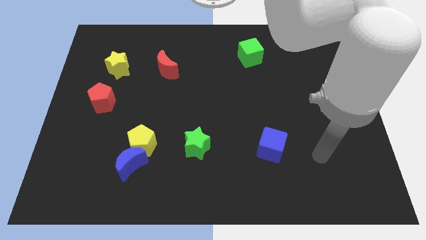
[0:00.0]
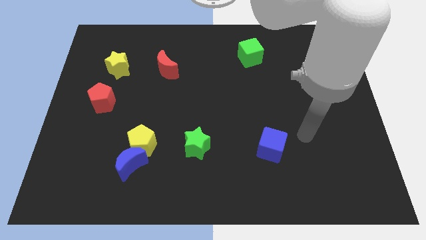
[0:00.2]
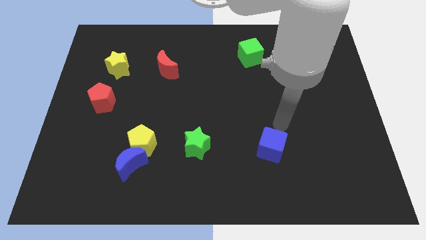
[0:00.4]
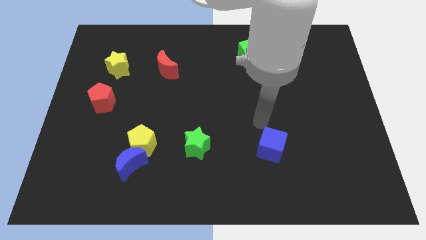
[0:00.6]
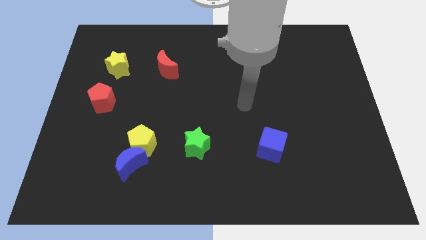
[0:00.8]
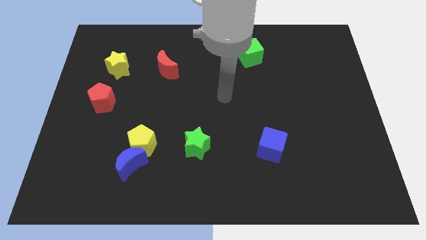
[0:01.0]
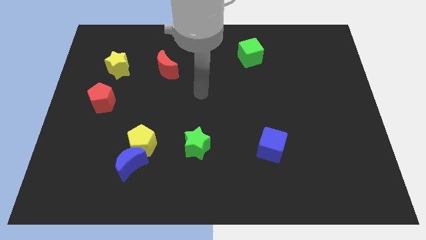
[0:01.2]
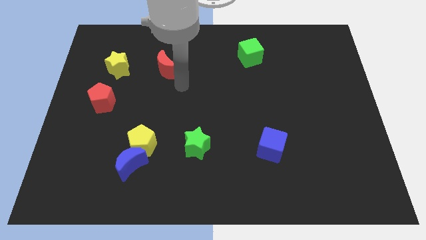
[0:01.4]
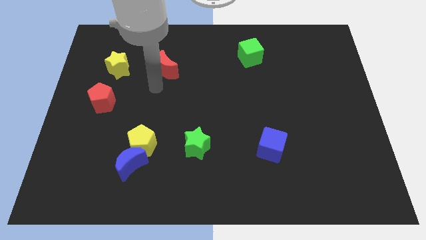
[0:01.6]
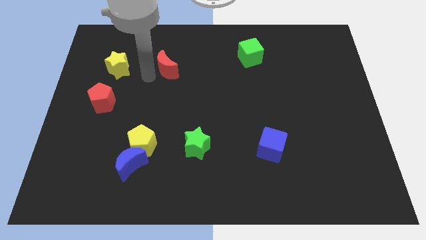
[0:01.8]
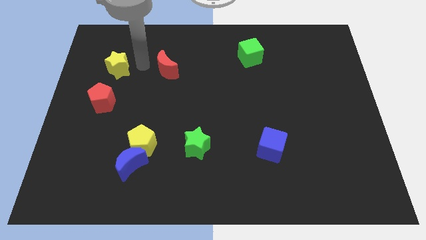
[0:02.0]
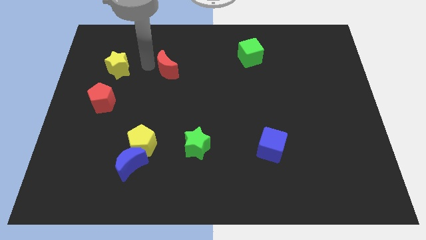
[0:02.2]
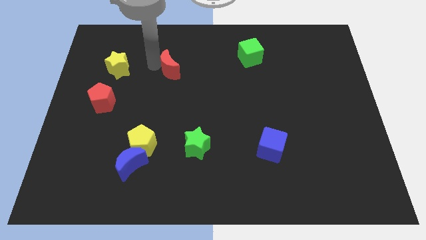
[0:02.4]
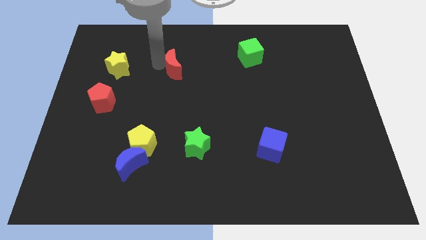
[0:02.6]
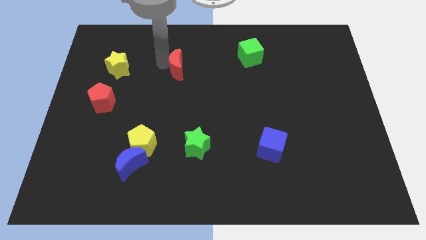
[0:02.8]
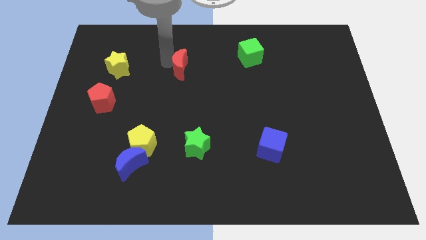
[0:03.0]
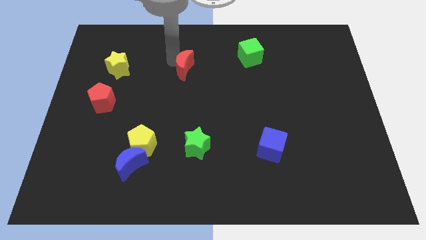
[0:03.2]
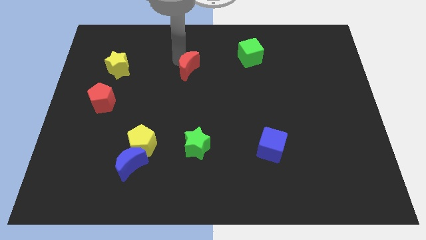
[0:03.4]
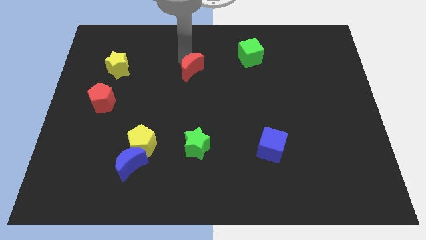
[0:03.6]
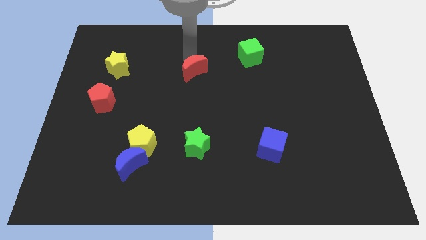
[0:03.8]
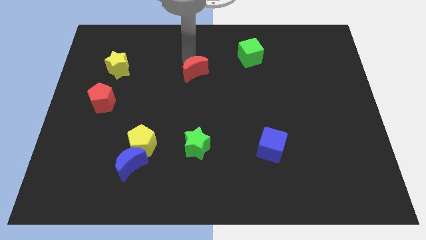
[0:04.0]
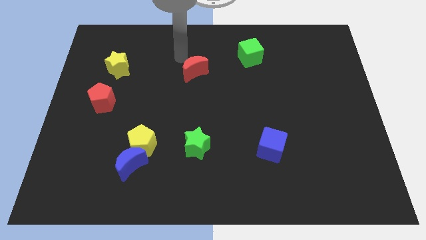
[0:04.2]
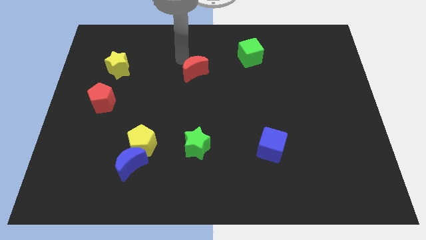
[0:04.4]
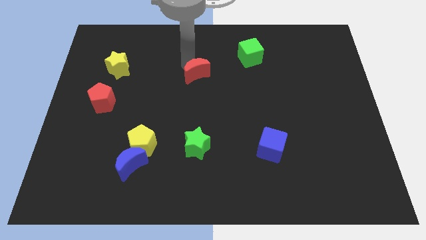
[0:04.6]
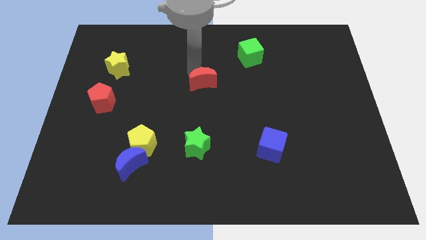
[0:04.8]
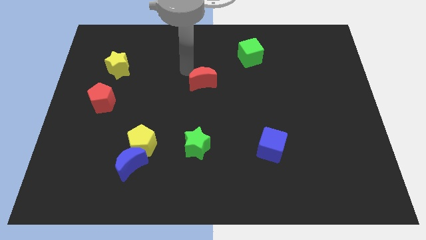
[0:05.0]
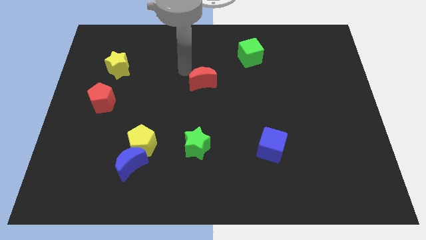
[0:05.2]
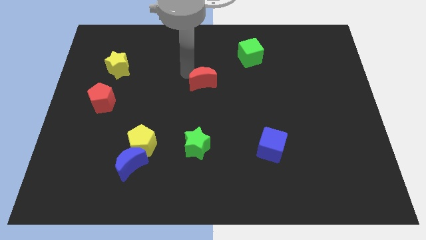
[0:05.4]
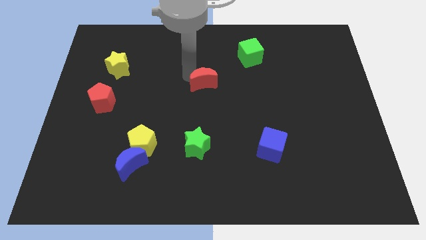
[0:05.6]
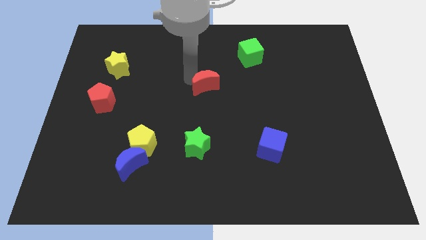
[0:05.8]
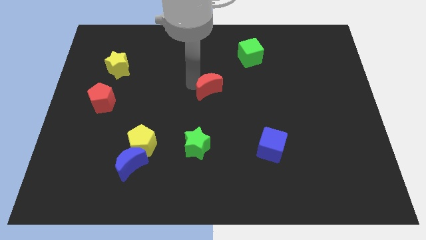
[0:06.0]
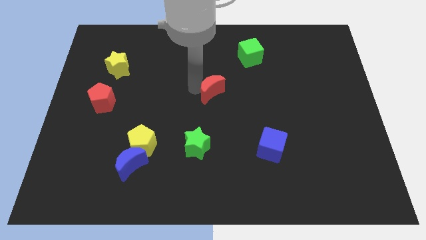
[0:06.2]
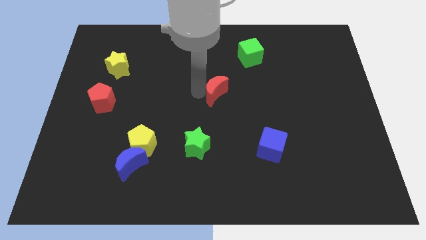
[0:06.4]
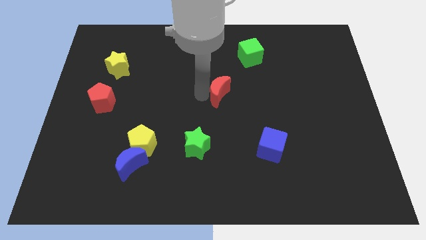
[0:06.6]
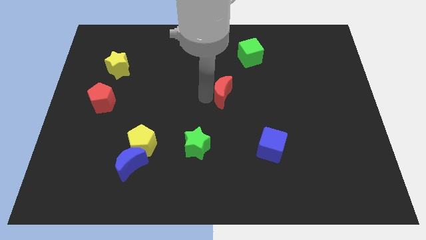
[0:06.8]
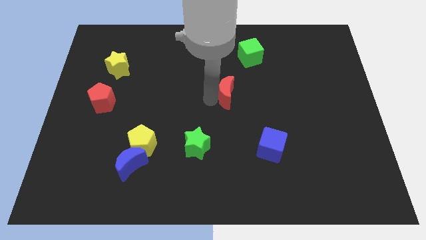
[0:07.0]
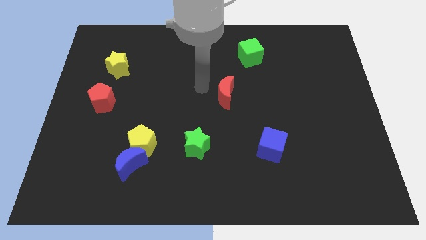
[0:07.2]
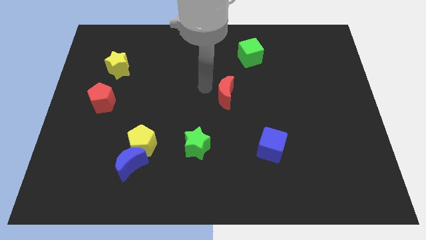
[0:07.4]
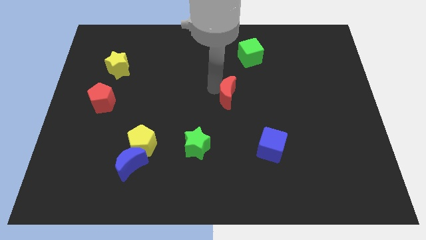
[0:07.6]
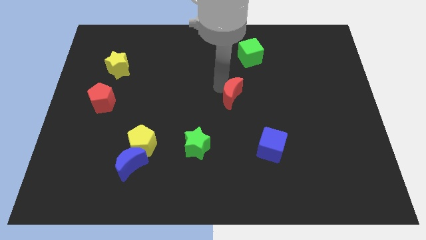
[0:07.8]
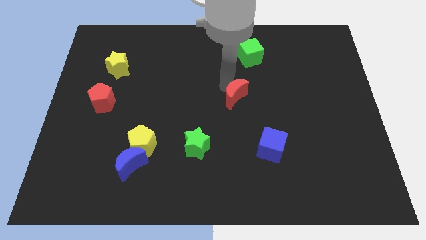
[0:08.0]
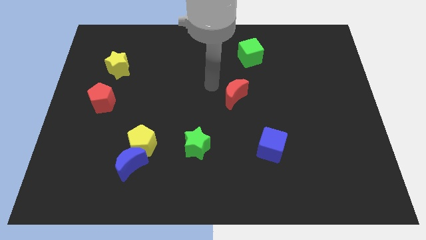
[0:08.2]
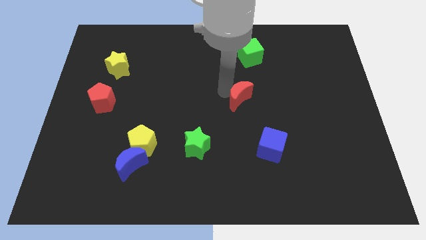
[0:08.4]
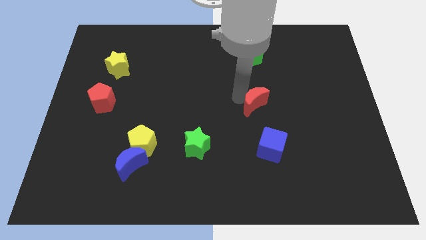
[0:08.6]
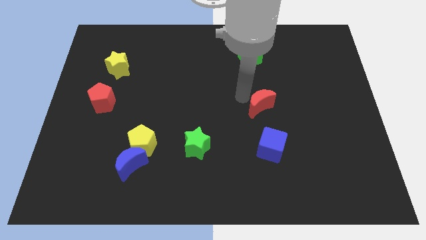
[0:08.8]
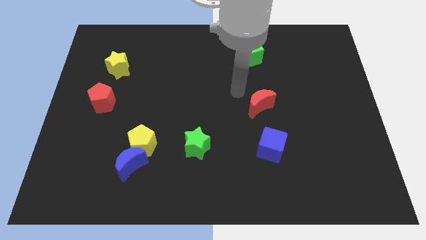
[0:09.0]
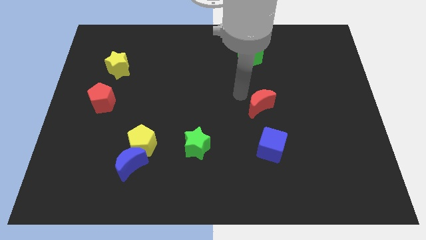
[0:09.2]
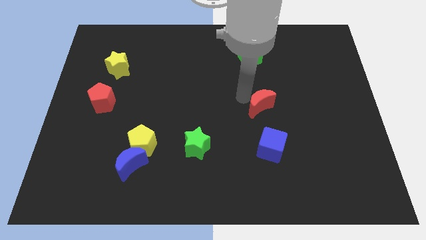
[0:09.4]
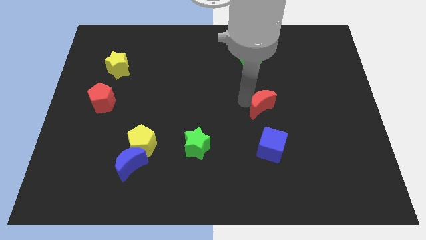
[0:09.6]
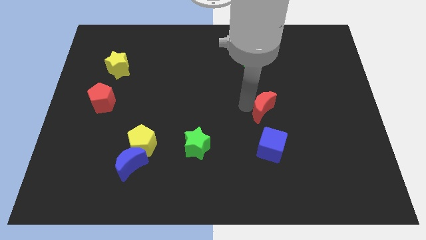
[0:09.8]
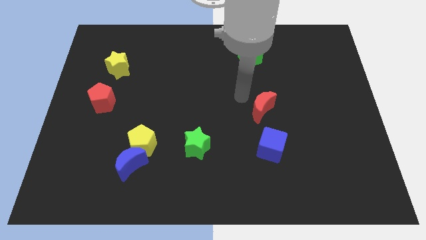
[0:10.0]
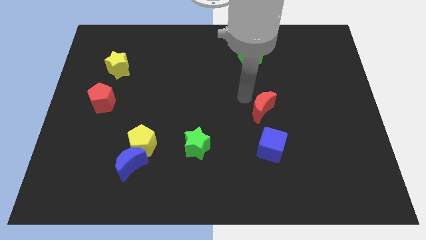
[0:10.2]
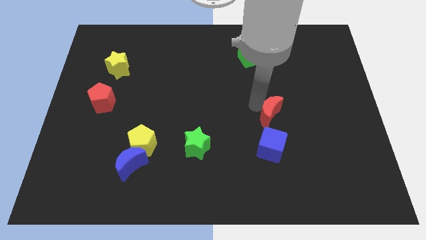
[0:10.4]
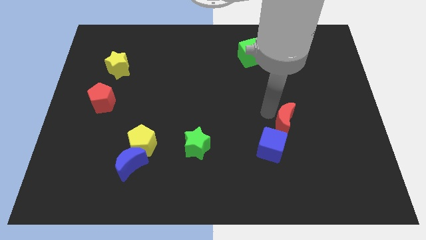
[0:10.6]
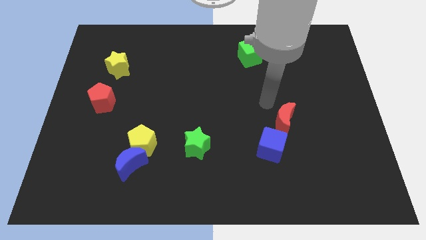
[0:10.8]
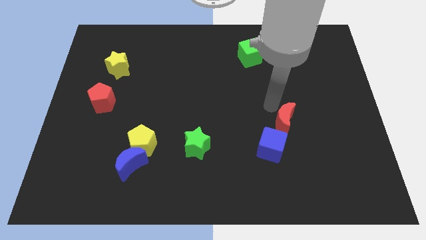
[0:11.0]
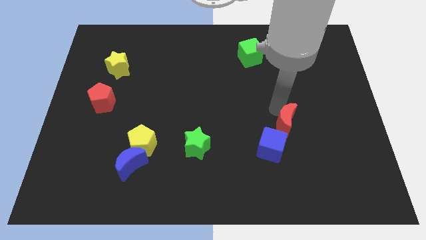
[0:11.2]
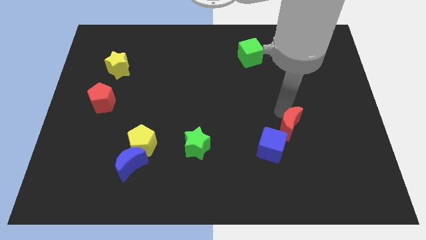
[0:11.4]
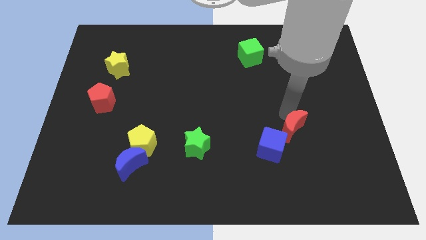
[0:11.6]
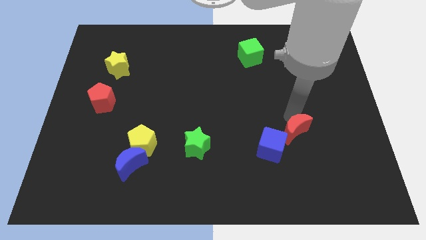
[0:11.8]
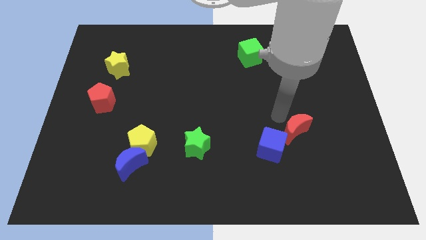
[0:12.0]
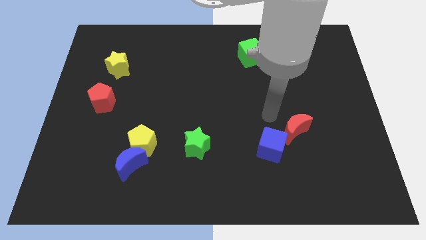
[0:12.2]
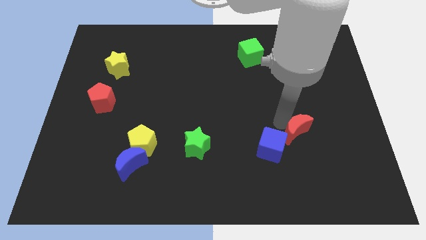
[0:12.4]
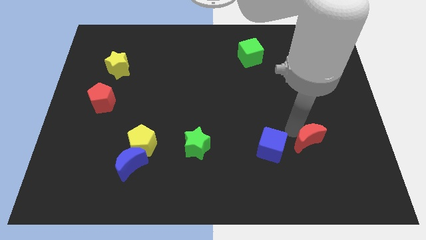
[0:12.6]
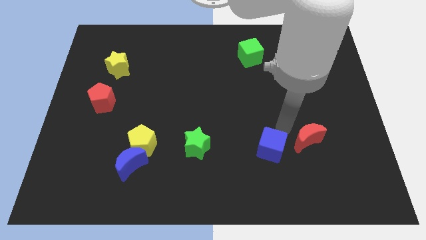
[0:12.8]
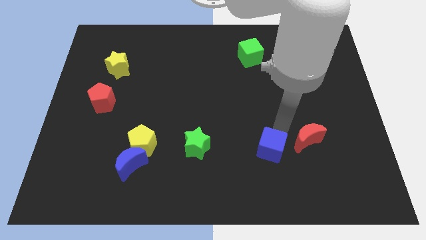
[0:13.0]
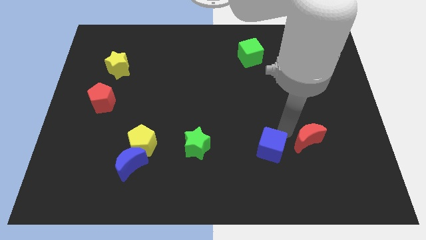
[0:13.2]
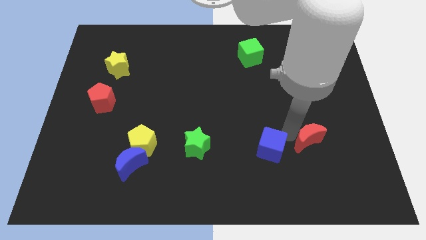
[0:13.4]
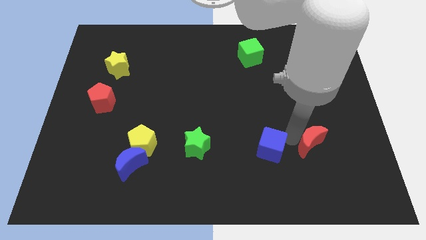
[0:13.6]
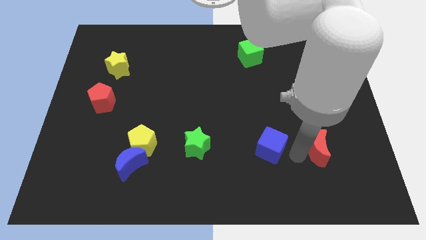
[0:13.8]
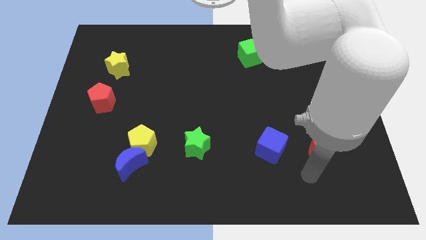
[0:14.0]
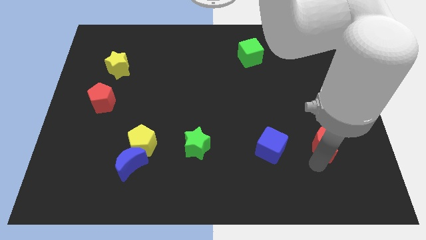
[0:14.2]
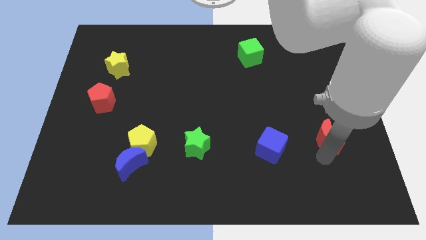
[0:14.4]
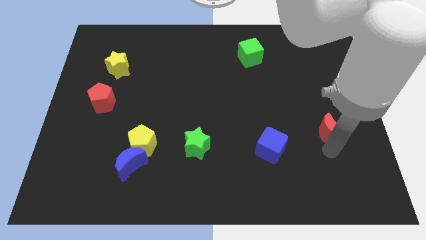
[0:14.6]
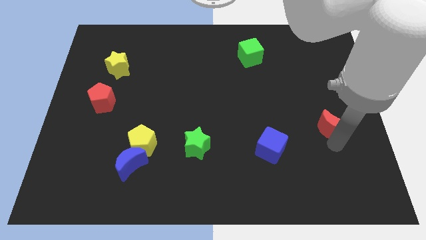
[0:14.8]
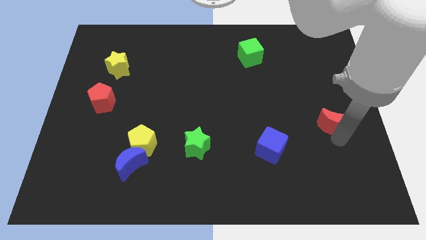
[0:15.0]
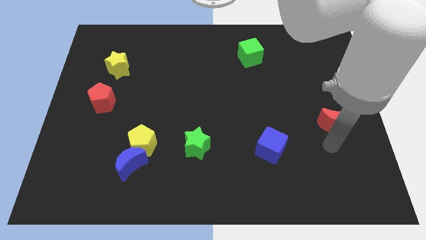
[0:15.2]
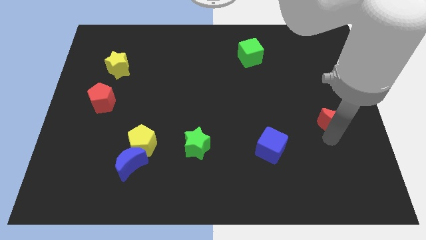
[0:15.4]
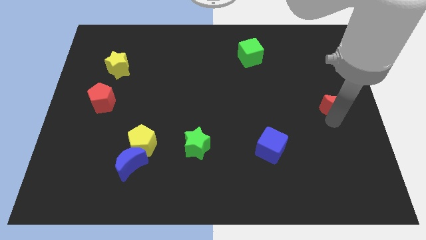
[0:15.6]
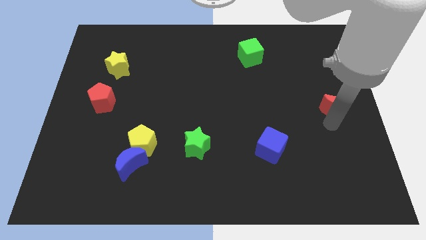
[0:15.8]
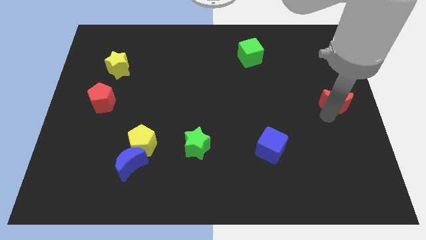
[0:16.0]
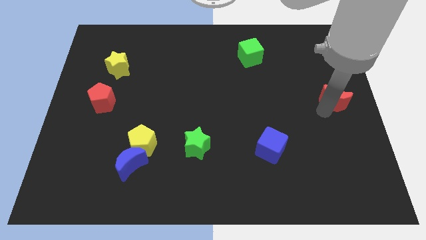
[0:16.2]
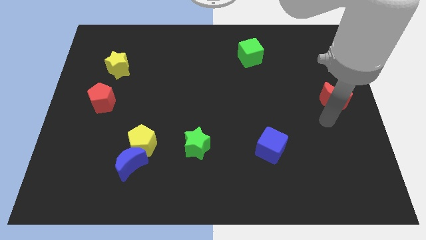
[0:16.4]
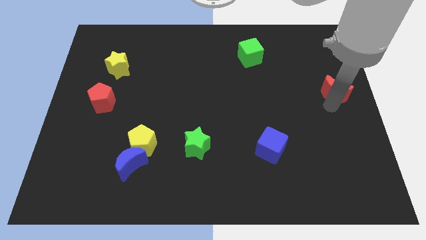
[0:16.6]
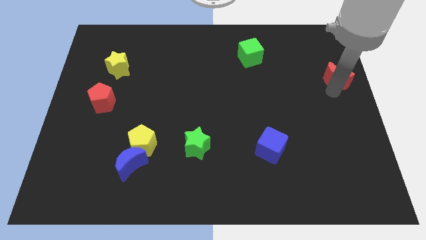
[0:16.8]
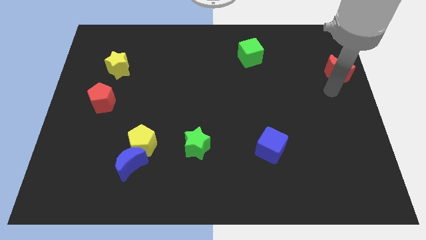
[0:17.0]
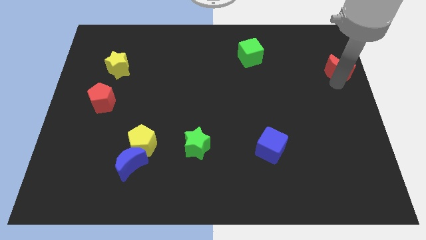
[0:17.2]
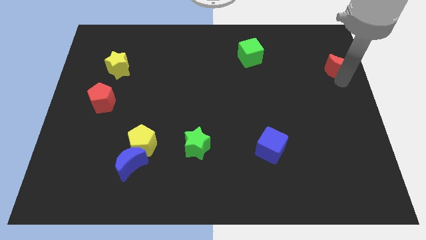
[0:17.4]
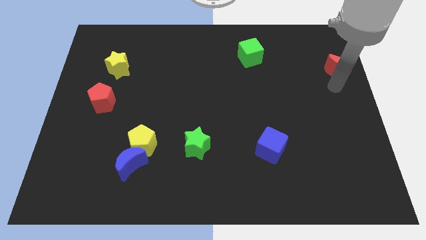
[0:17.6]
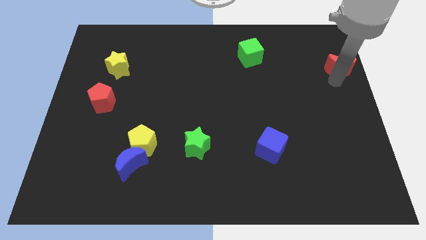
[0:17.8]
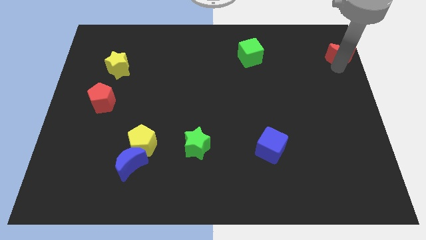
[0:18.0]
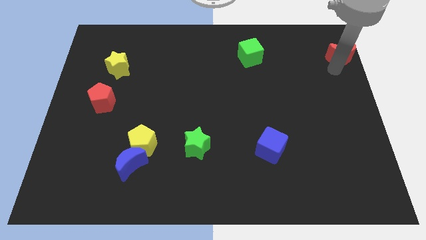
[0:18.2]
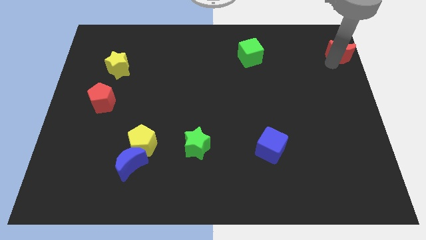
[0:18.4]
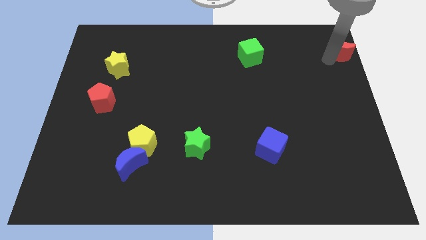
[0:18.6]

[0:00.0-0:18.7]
slide the red moon to the top right corner
